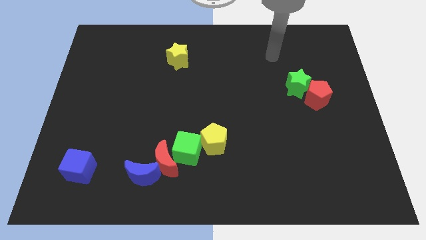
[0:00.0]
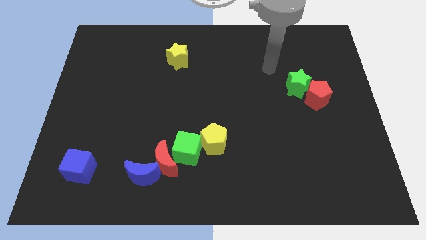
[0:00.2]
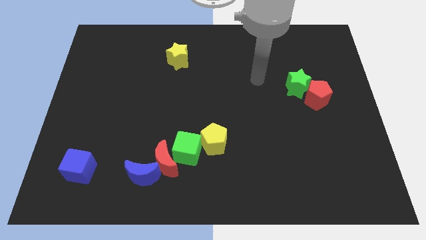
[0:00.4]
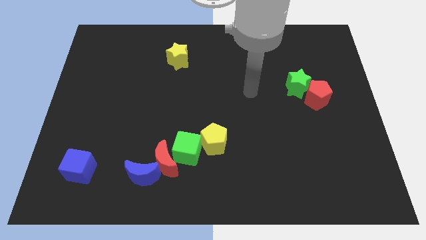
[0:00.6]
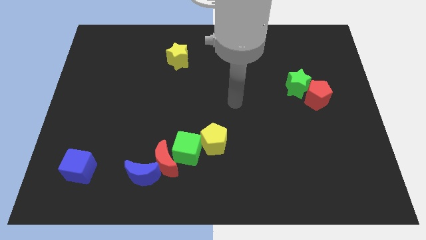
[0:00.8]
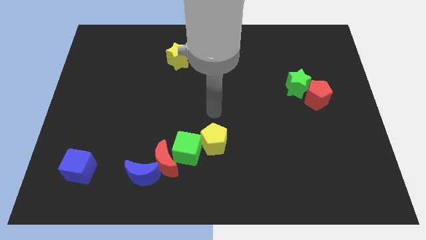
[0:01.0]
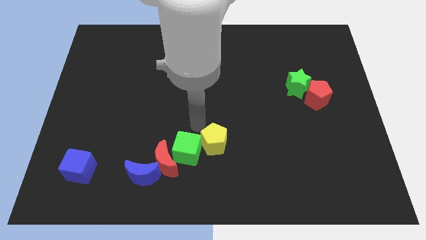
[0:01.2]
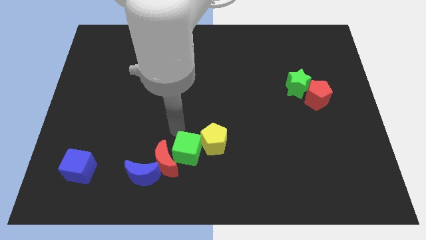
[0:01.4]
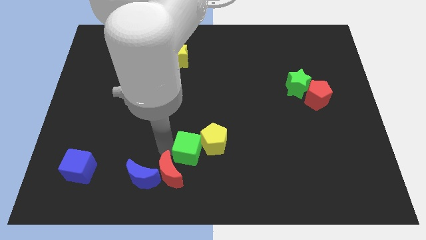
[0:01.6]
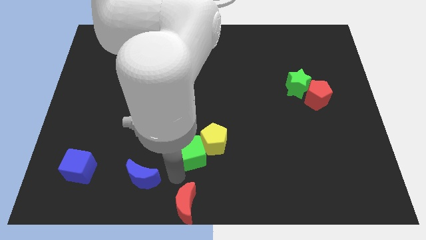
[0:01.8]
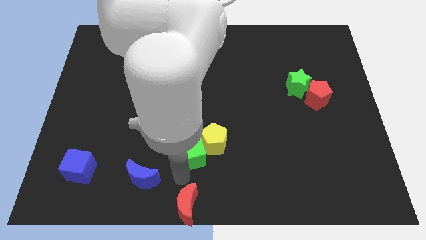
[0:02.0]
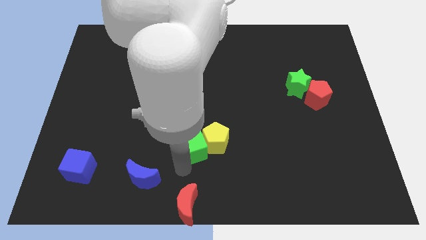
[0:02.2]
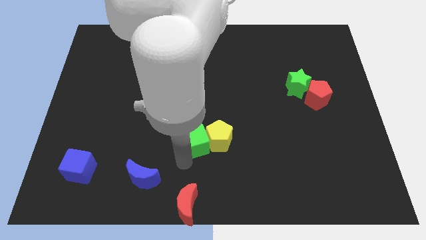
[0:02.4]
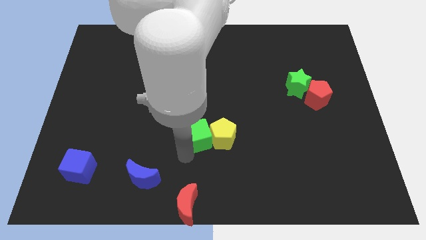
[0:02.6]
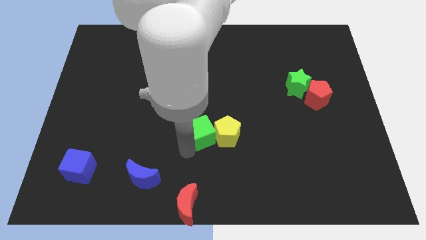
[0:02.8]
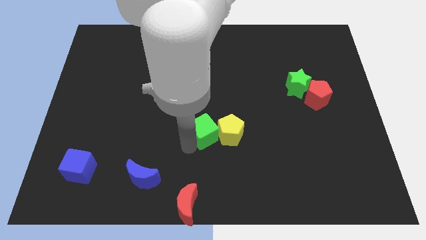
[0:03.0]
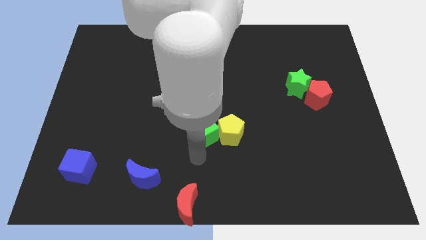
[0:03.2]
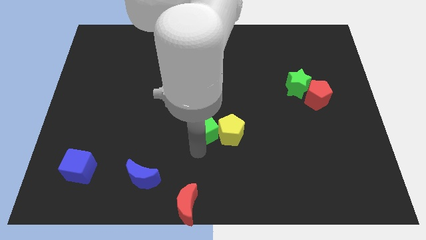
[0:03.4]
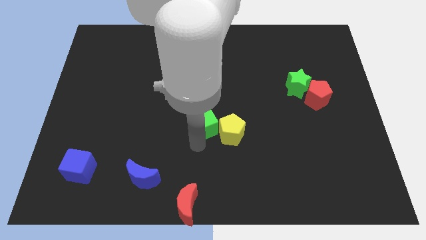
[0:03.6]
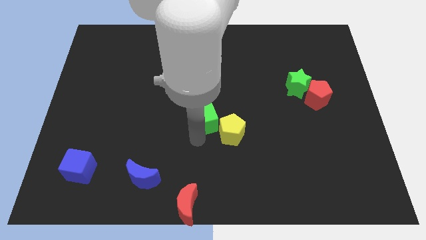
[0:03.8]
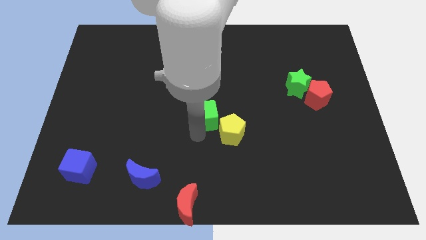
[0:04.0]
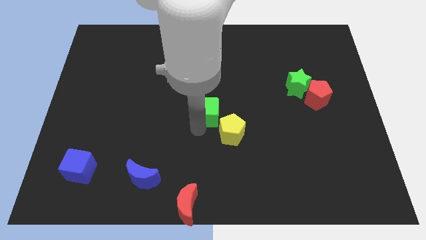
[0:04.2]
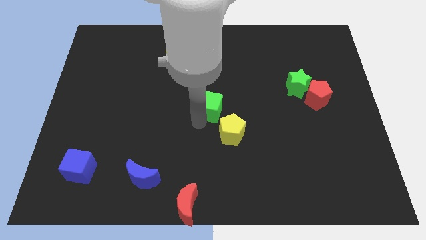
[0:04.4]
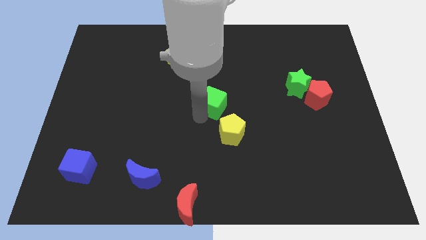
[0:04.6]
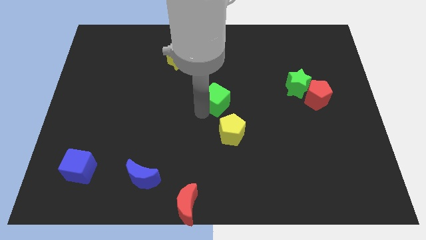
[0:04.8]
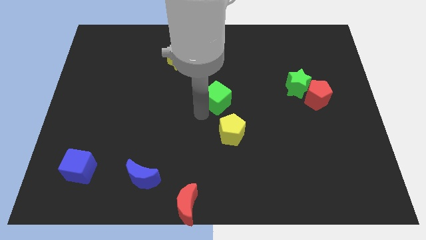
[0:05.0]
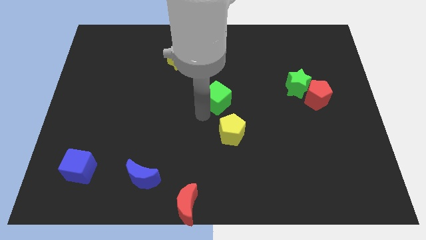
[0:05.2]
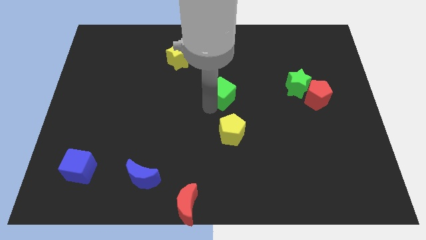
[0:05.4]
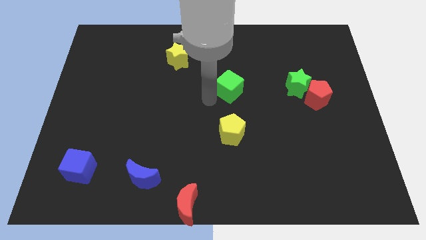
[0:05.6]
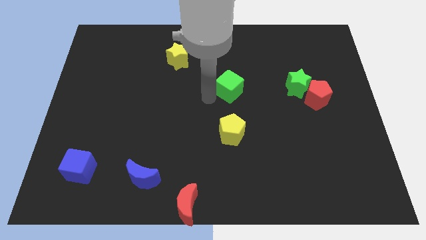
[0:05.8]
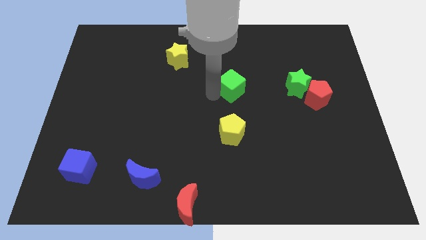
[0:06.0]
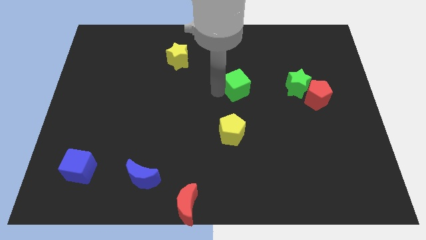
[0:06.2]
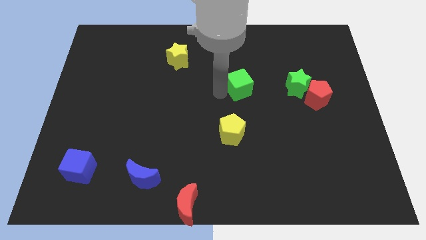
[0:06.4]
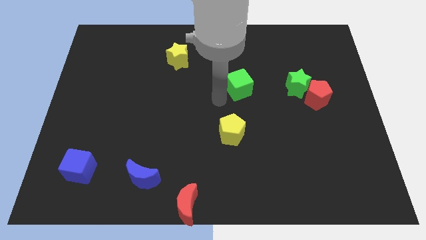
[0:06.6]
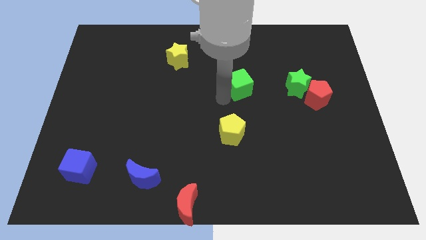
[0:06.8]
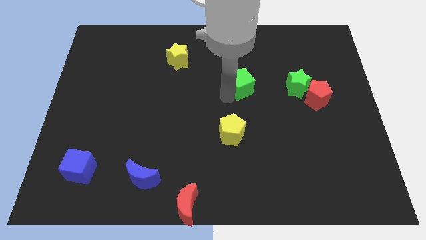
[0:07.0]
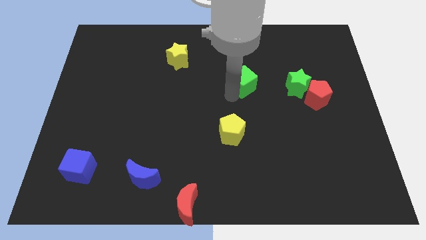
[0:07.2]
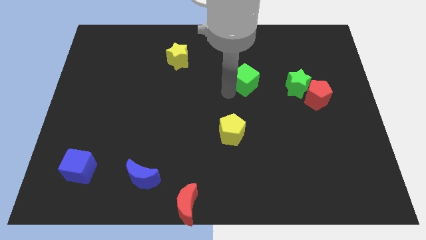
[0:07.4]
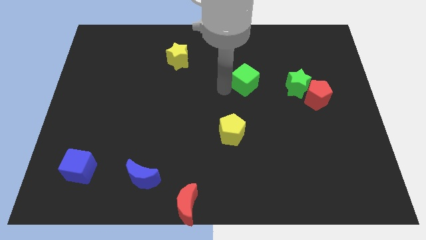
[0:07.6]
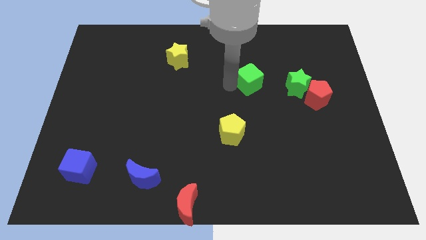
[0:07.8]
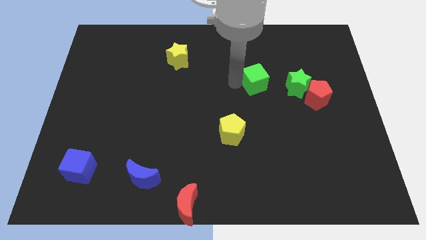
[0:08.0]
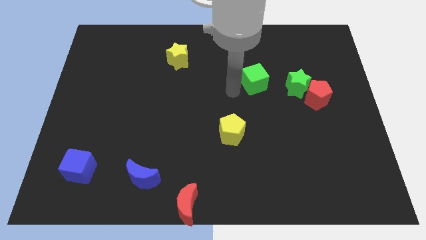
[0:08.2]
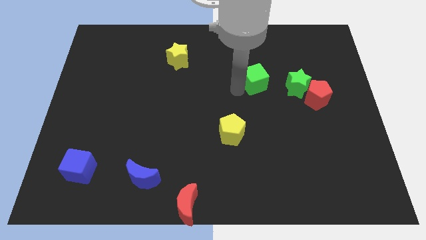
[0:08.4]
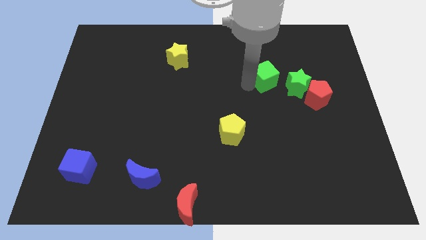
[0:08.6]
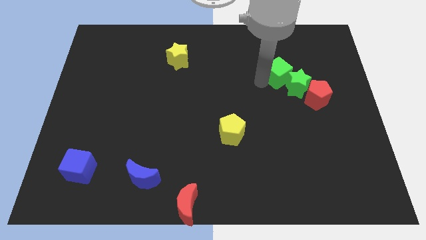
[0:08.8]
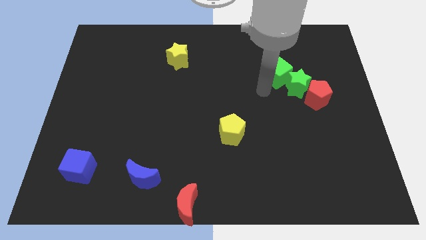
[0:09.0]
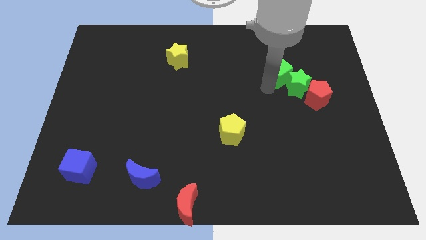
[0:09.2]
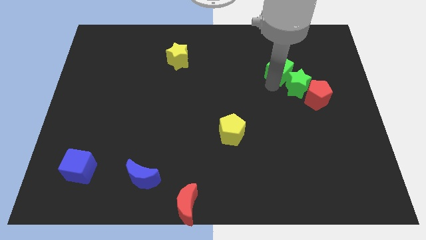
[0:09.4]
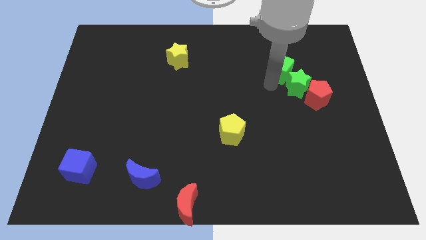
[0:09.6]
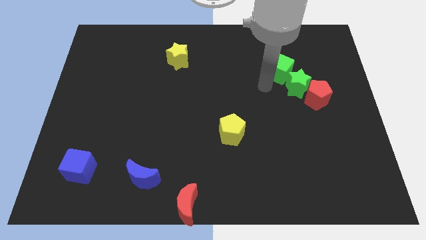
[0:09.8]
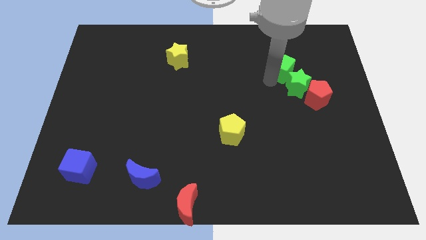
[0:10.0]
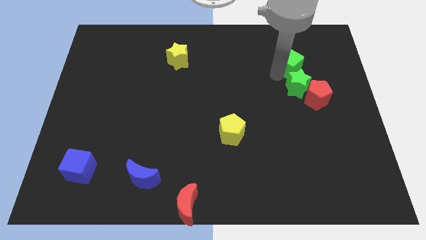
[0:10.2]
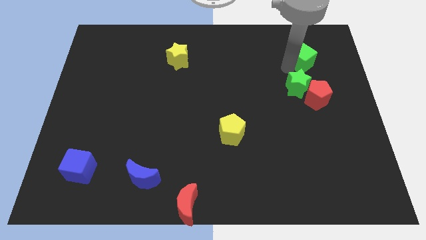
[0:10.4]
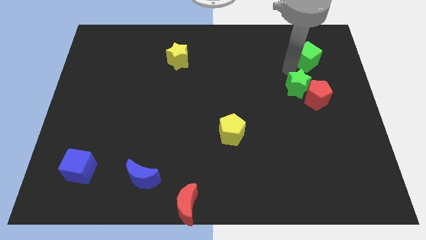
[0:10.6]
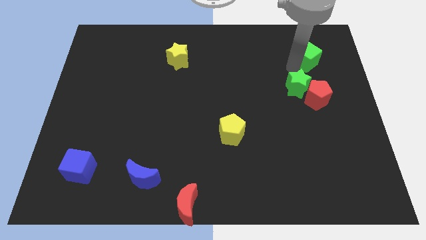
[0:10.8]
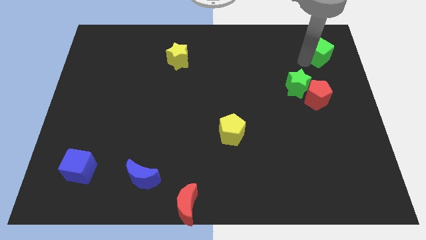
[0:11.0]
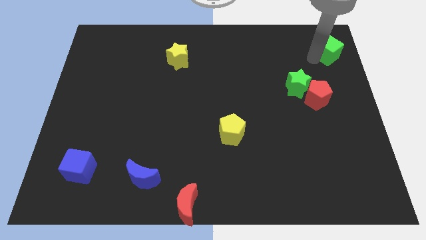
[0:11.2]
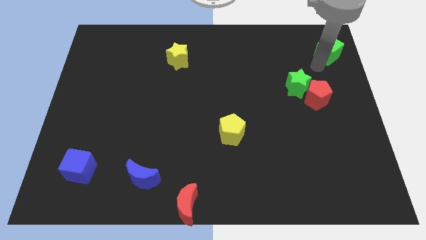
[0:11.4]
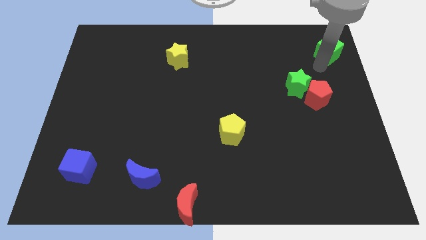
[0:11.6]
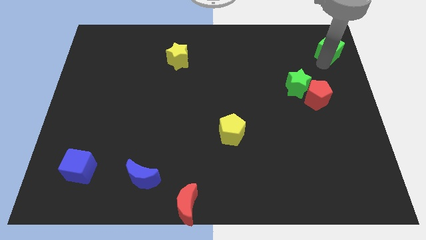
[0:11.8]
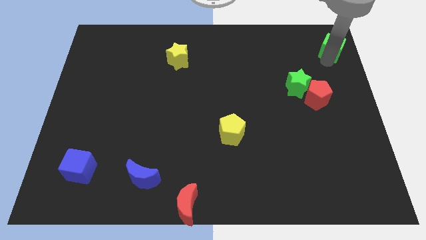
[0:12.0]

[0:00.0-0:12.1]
slide the green cube to the top right corner

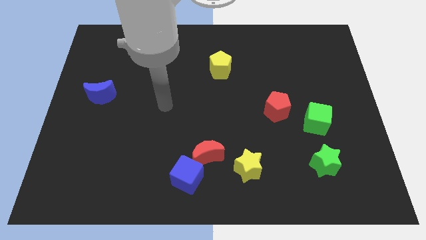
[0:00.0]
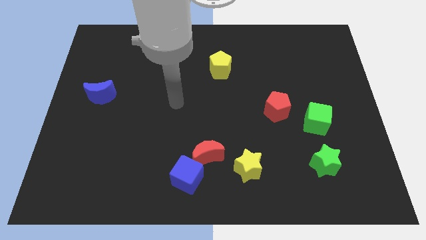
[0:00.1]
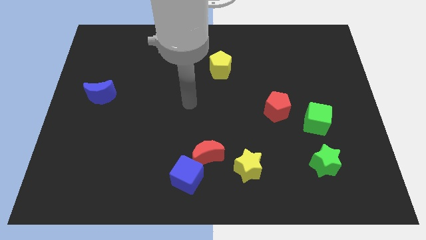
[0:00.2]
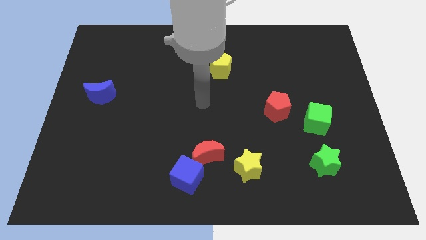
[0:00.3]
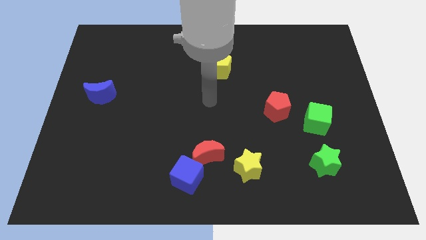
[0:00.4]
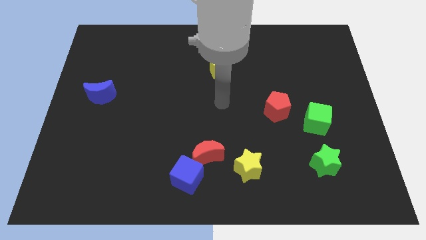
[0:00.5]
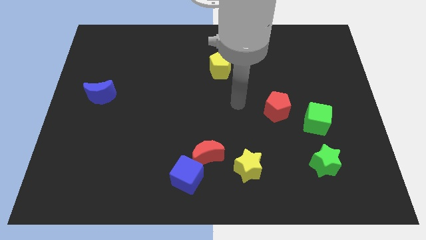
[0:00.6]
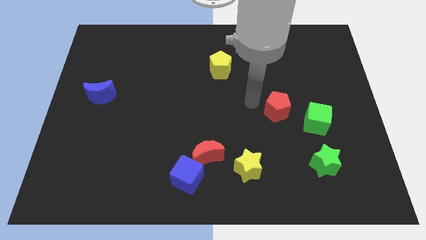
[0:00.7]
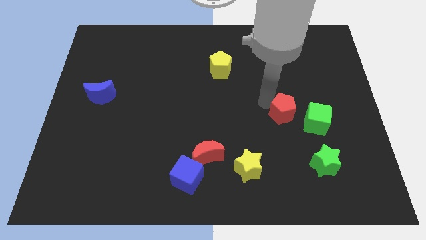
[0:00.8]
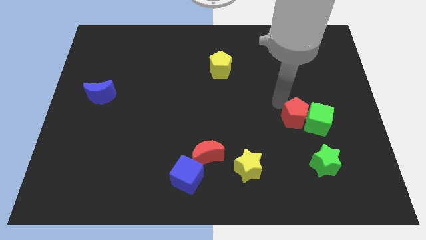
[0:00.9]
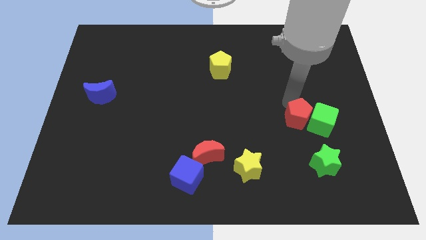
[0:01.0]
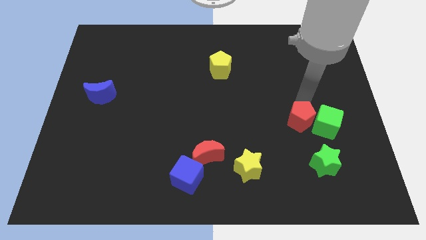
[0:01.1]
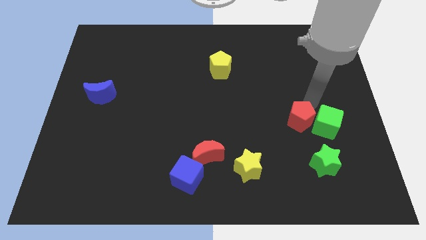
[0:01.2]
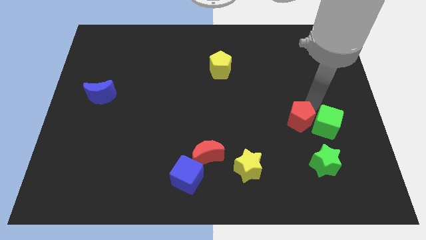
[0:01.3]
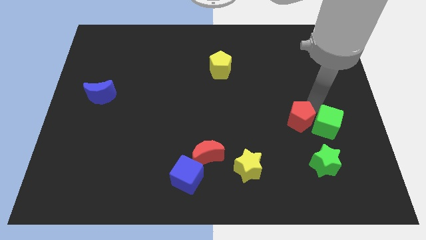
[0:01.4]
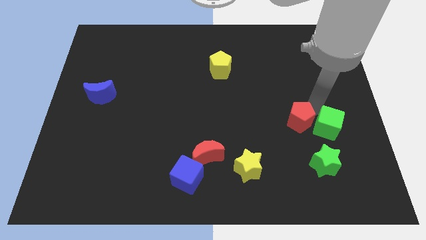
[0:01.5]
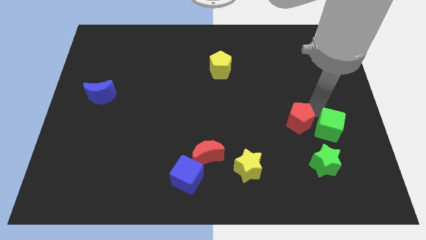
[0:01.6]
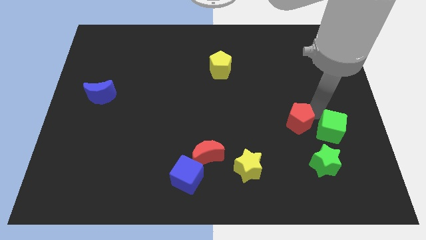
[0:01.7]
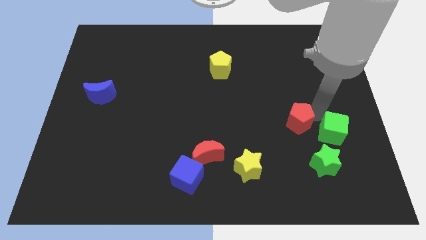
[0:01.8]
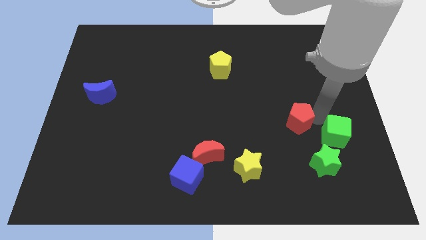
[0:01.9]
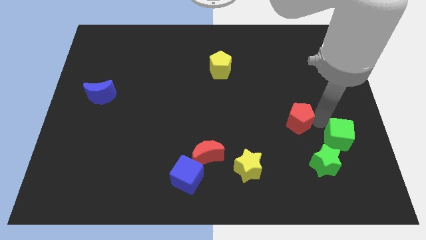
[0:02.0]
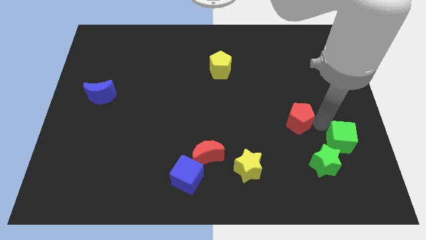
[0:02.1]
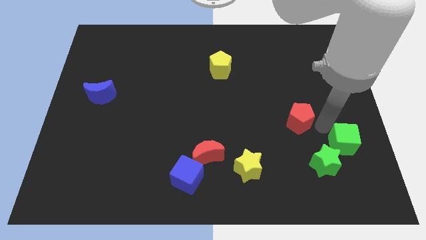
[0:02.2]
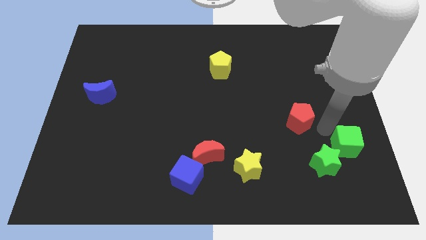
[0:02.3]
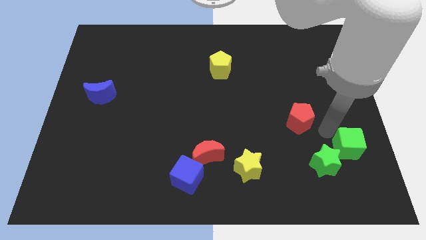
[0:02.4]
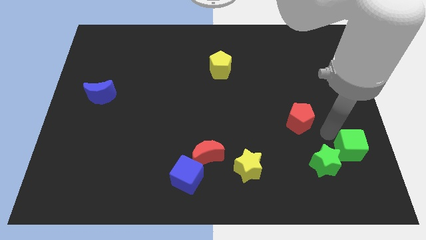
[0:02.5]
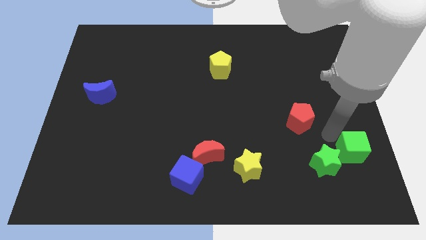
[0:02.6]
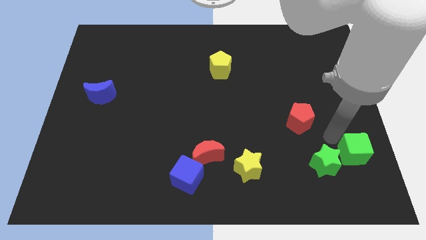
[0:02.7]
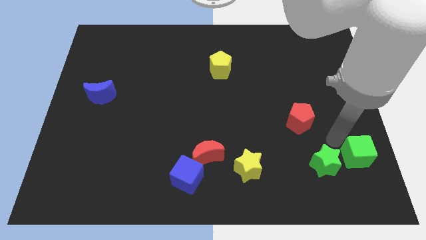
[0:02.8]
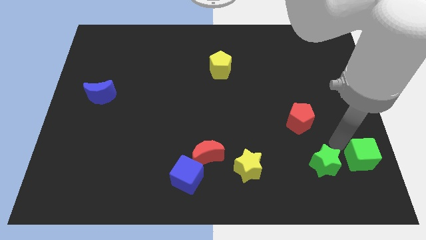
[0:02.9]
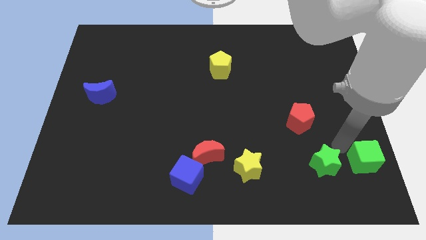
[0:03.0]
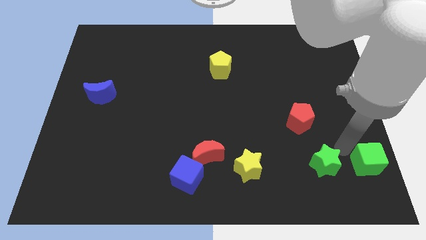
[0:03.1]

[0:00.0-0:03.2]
put the green cube to the bottom right corner
